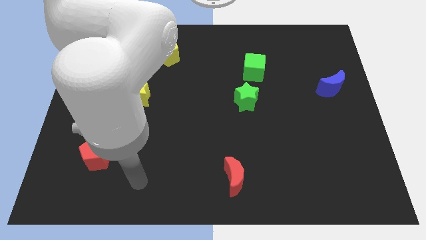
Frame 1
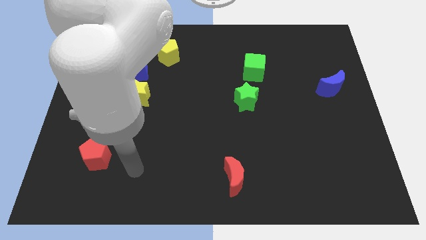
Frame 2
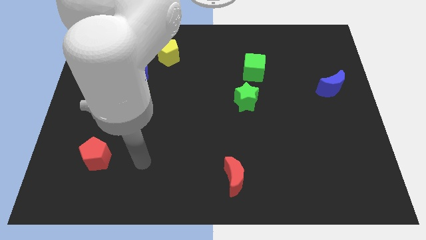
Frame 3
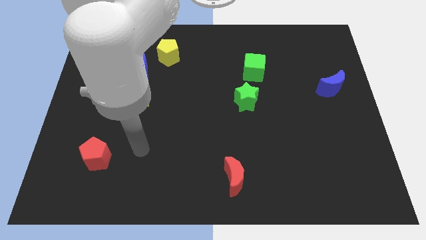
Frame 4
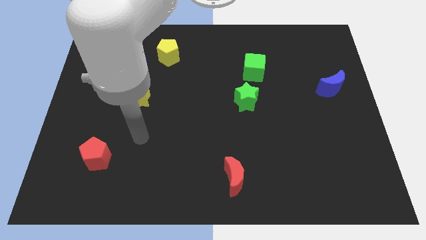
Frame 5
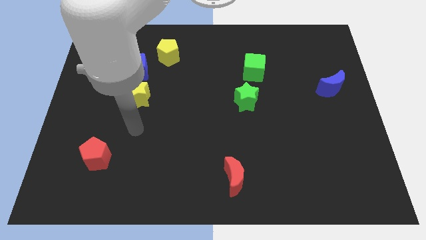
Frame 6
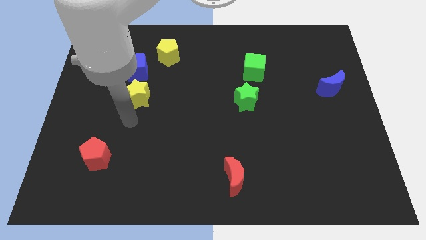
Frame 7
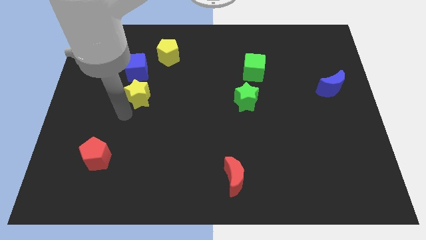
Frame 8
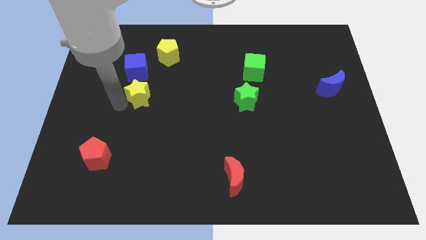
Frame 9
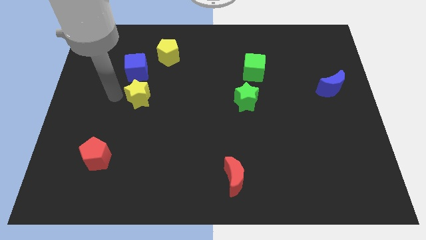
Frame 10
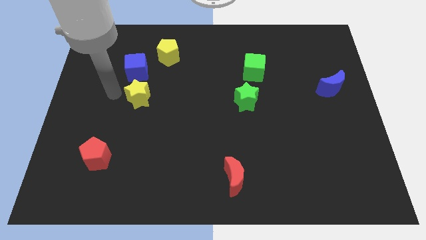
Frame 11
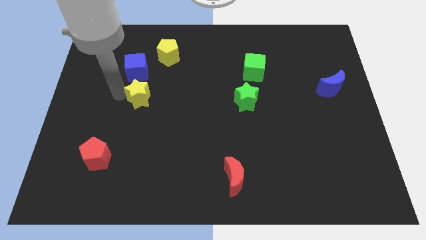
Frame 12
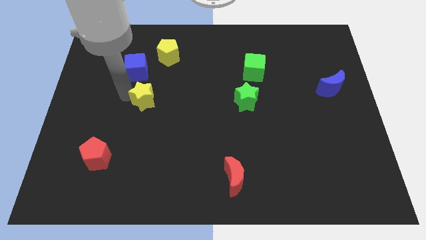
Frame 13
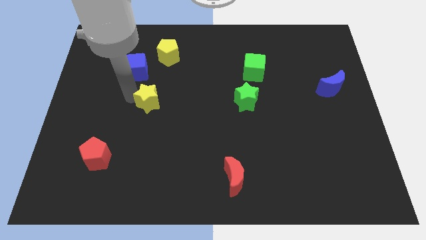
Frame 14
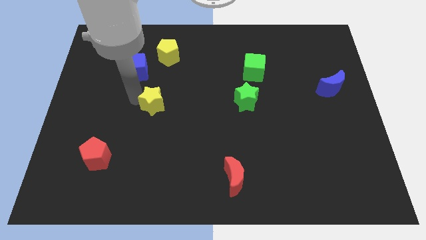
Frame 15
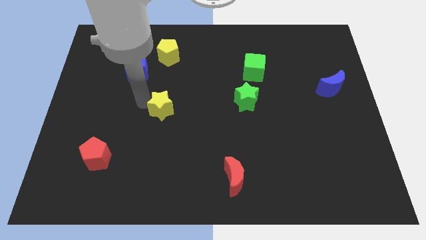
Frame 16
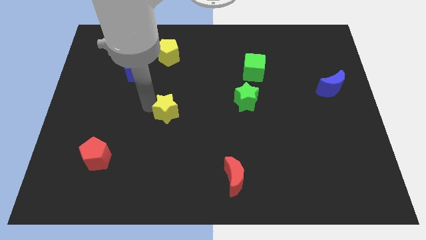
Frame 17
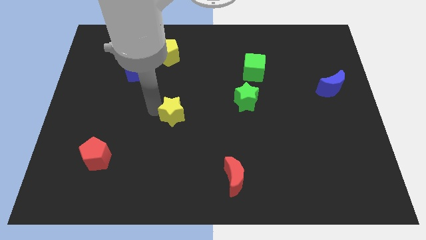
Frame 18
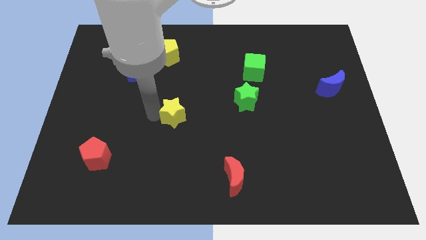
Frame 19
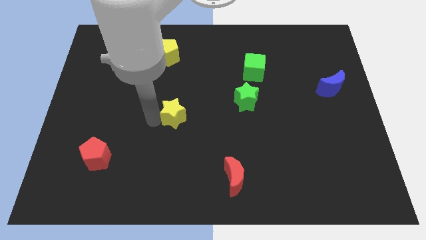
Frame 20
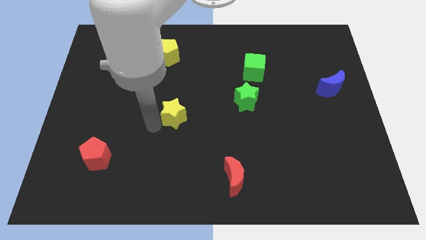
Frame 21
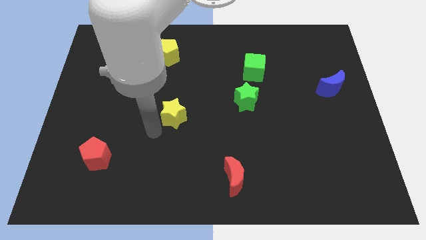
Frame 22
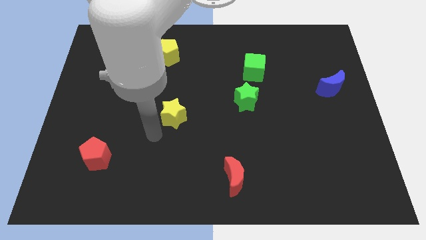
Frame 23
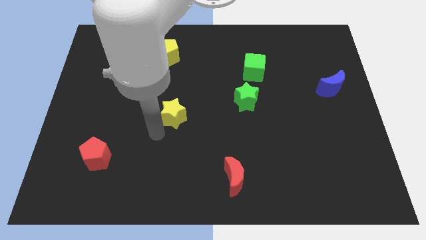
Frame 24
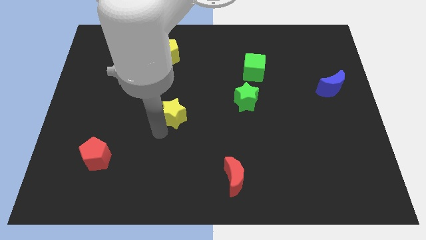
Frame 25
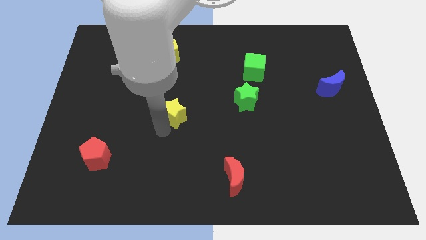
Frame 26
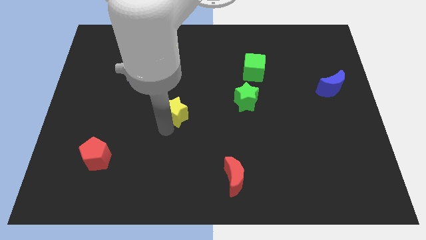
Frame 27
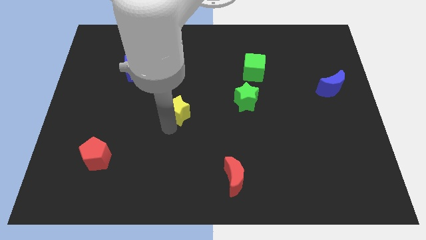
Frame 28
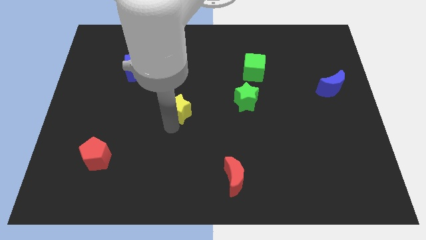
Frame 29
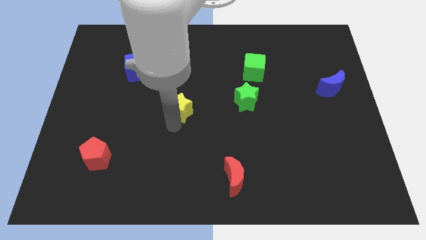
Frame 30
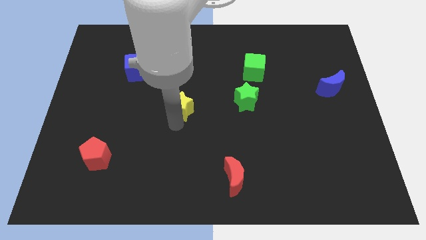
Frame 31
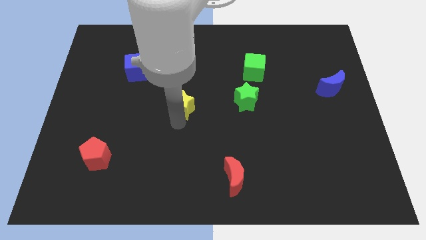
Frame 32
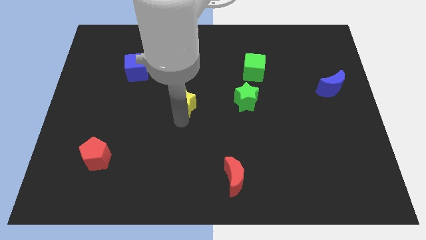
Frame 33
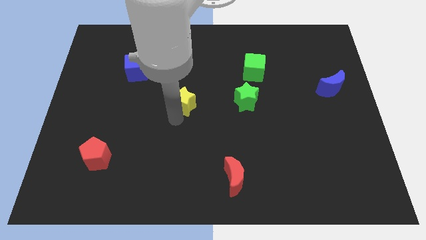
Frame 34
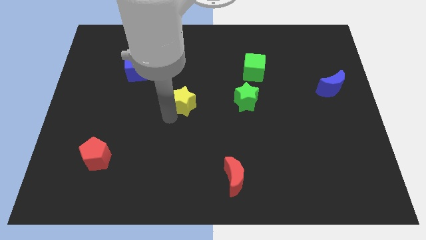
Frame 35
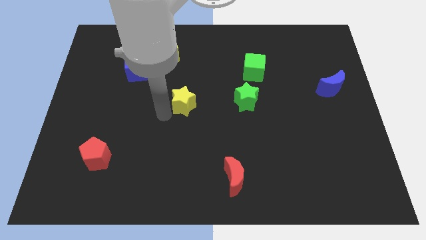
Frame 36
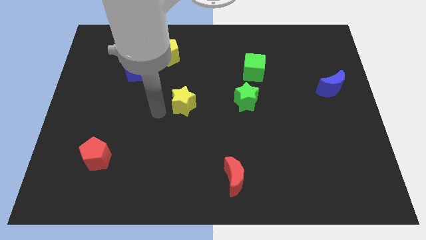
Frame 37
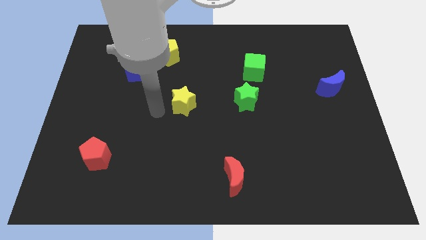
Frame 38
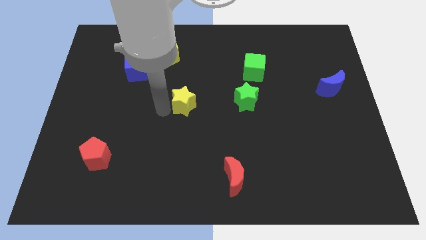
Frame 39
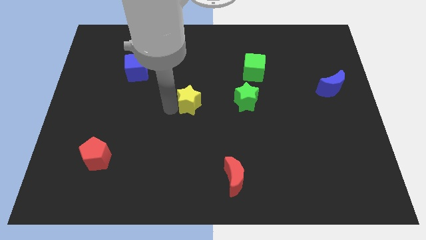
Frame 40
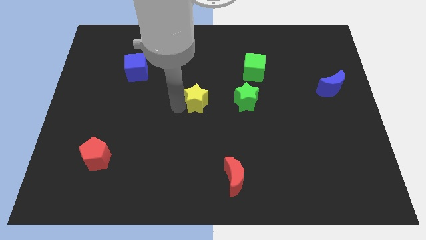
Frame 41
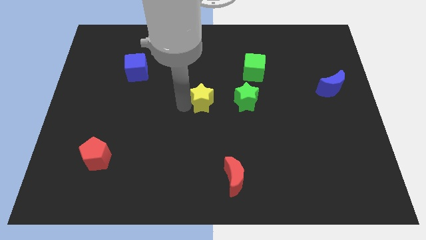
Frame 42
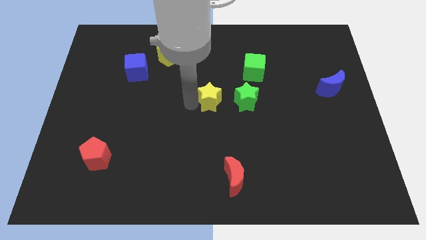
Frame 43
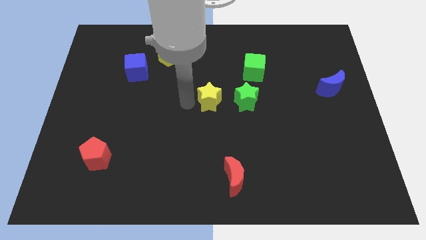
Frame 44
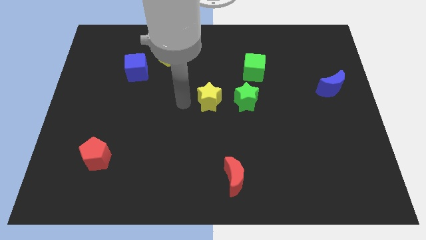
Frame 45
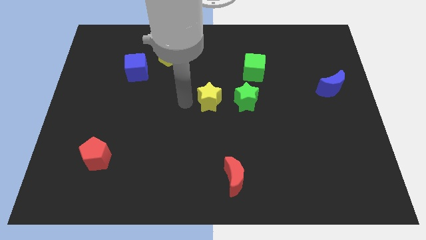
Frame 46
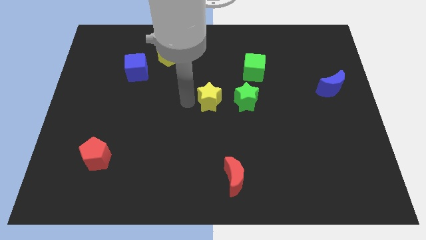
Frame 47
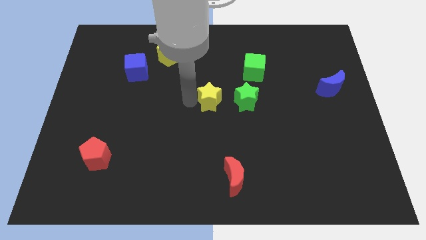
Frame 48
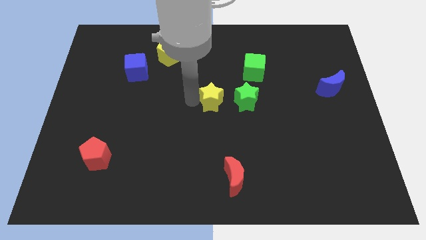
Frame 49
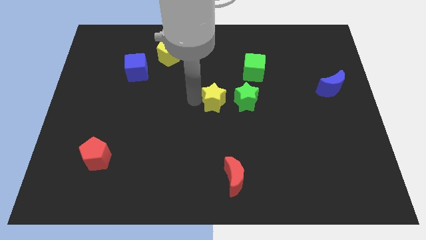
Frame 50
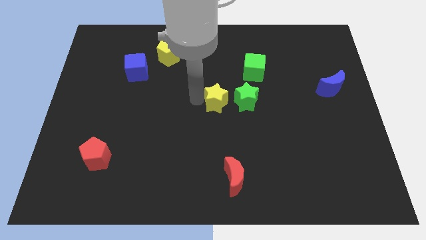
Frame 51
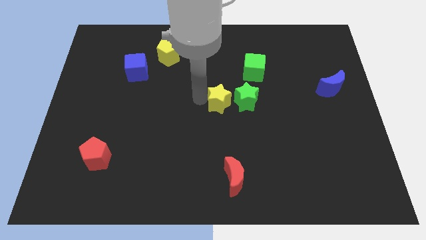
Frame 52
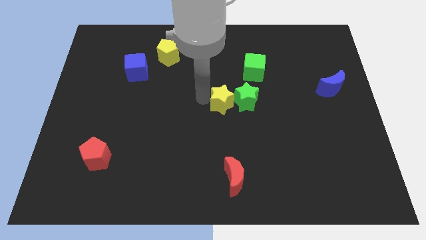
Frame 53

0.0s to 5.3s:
move the yellow star towards the green star

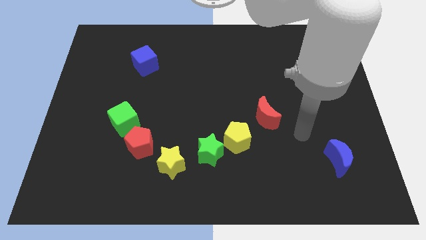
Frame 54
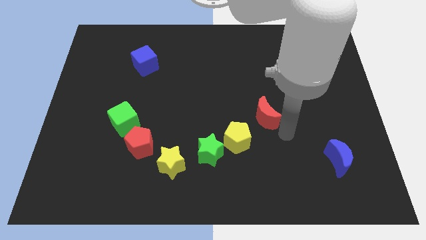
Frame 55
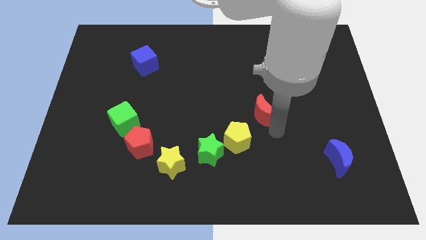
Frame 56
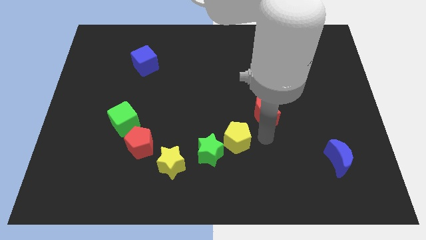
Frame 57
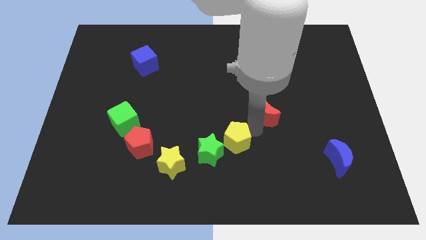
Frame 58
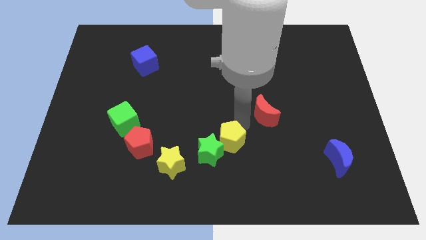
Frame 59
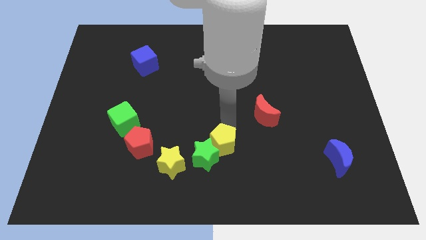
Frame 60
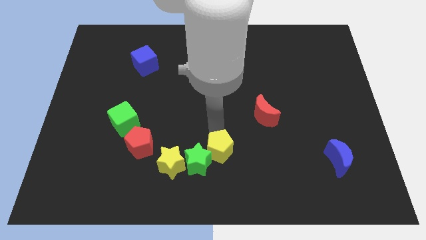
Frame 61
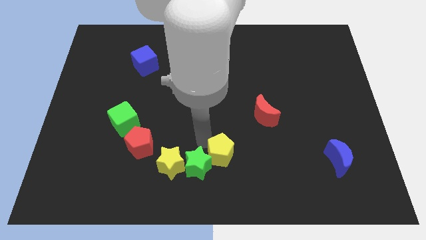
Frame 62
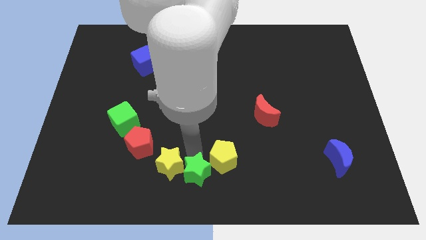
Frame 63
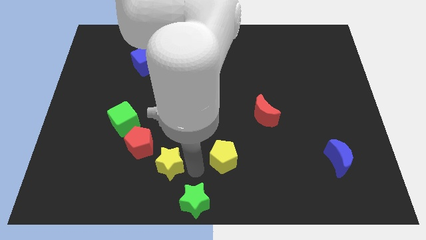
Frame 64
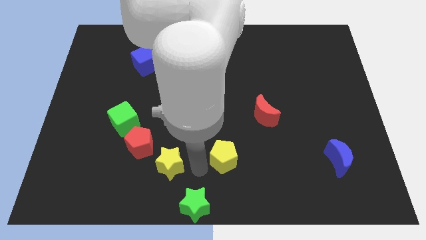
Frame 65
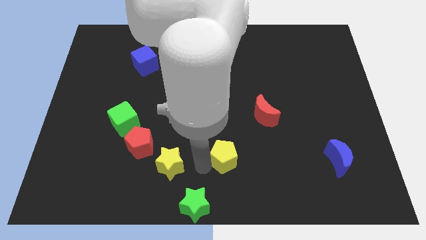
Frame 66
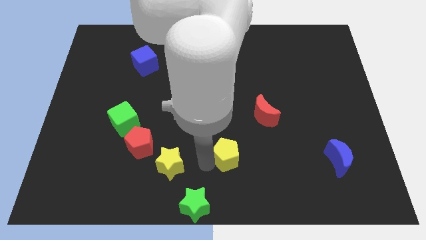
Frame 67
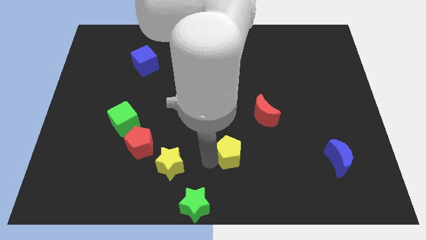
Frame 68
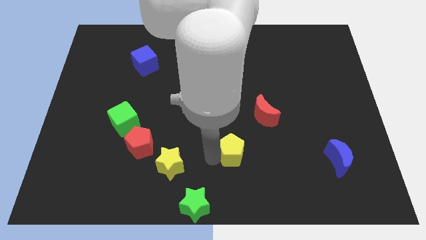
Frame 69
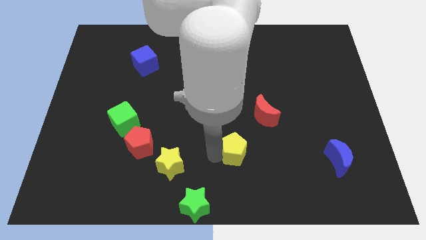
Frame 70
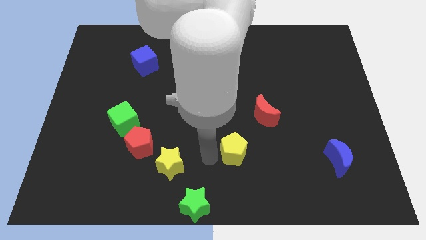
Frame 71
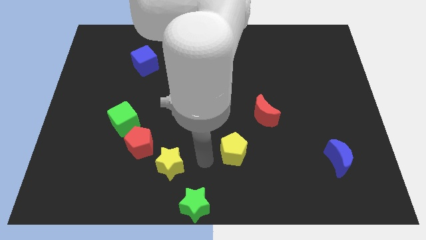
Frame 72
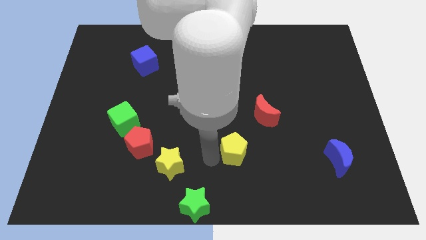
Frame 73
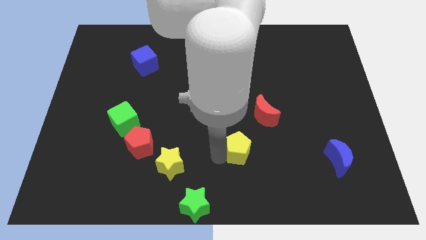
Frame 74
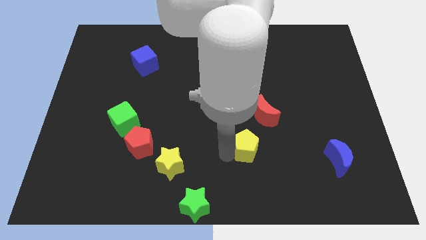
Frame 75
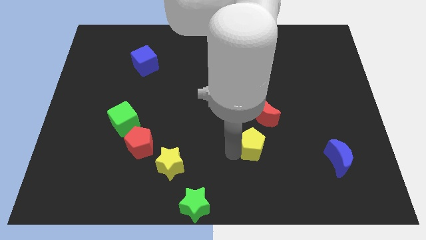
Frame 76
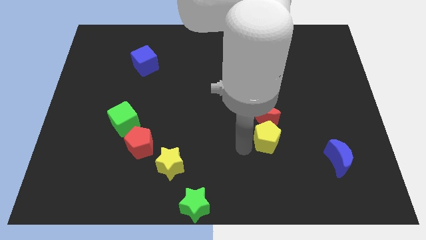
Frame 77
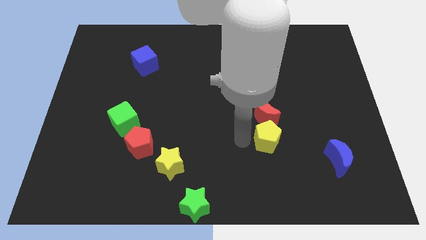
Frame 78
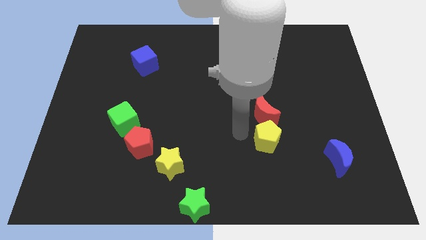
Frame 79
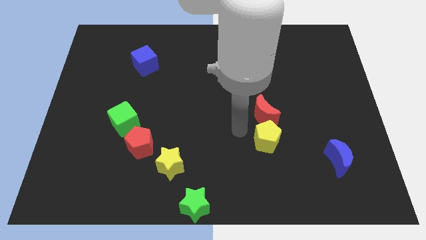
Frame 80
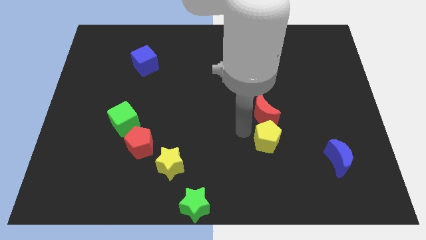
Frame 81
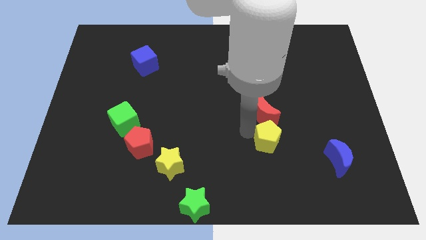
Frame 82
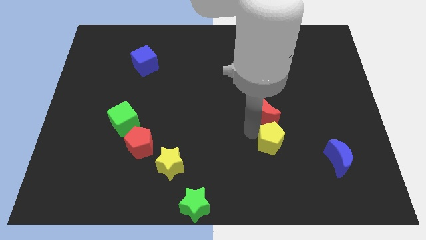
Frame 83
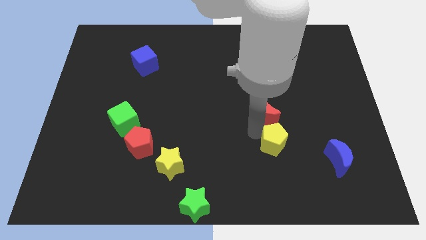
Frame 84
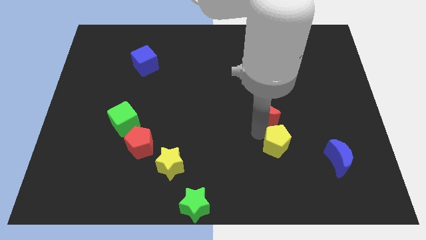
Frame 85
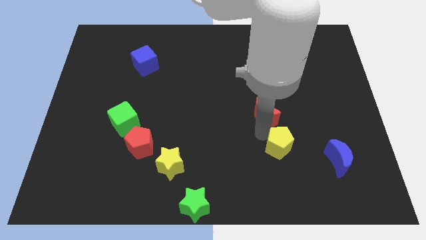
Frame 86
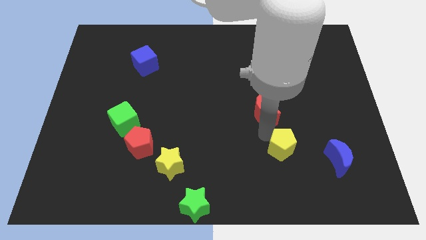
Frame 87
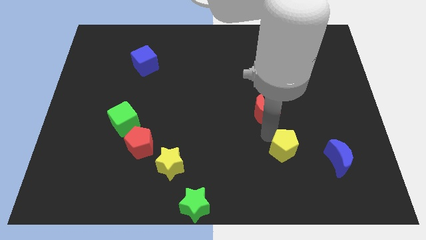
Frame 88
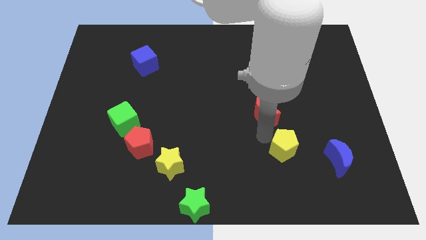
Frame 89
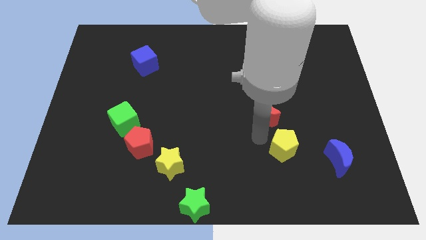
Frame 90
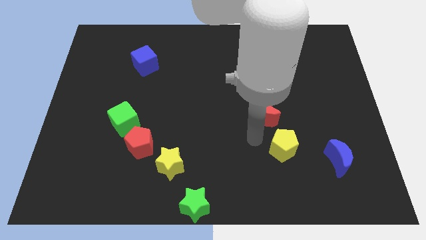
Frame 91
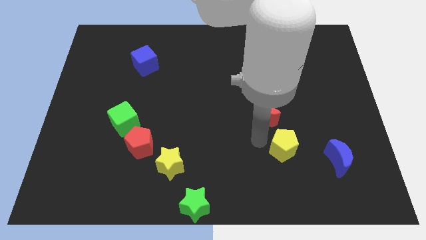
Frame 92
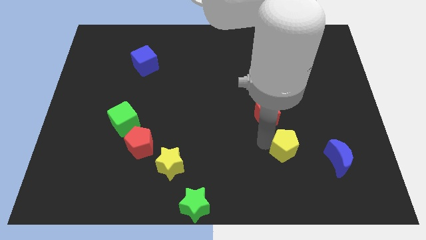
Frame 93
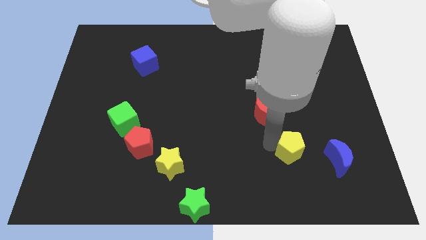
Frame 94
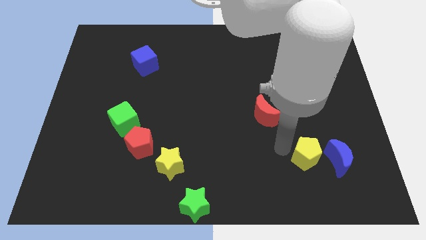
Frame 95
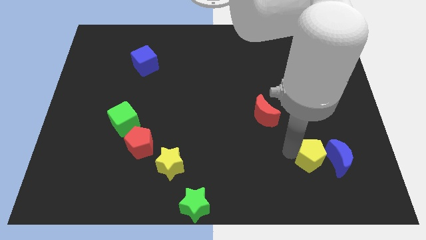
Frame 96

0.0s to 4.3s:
put the yellow pentagon to the blue moon
